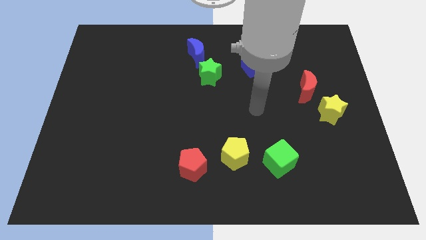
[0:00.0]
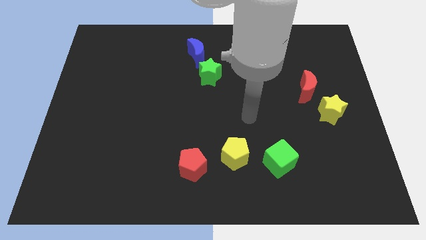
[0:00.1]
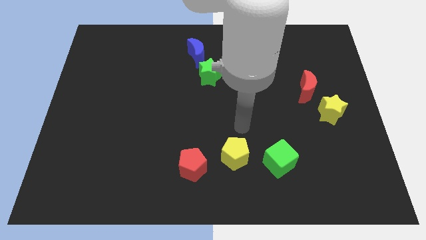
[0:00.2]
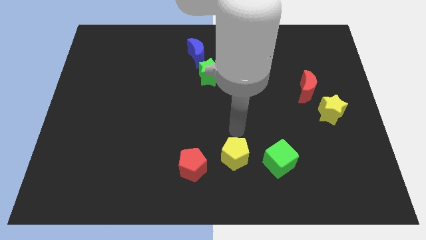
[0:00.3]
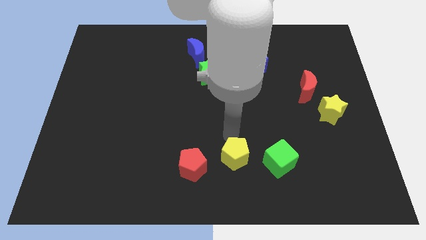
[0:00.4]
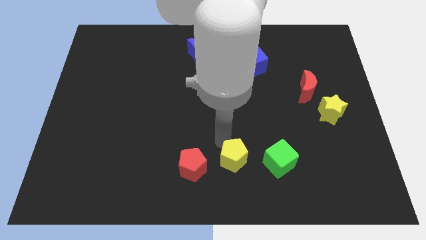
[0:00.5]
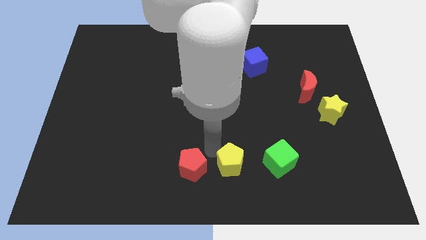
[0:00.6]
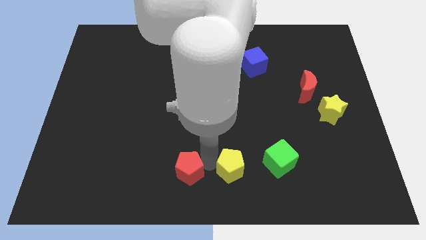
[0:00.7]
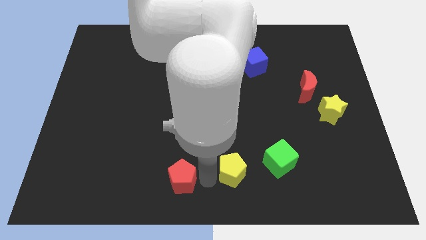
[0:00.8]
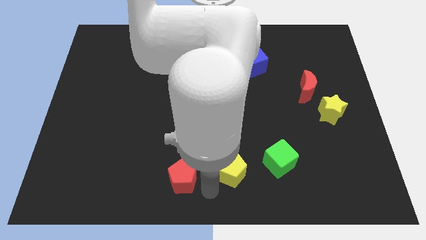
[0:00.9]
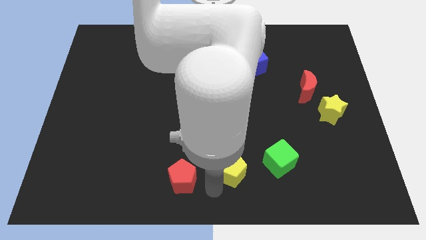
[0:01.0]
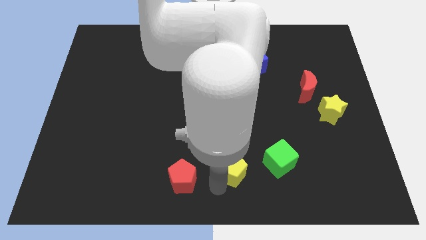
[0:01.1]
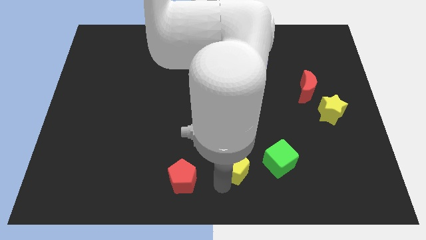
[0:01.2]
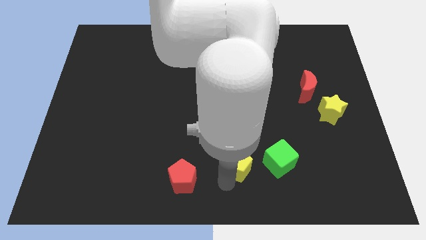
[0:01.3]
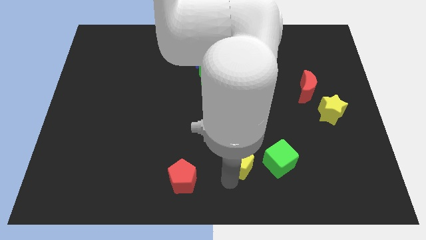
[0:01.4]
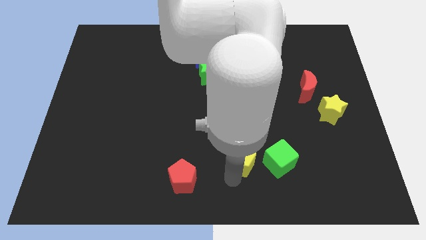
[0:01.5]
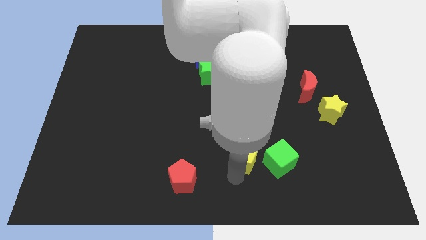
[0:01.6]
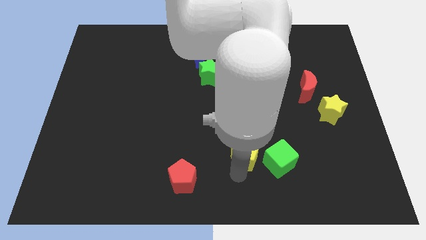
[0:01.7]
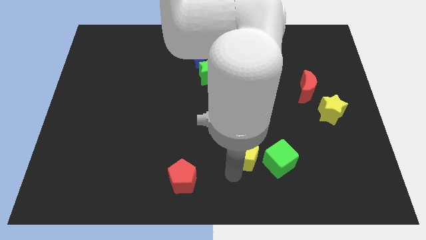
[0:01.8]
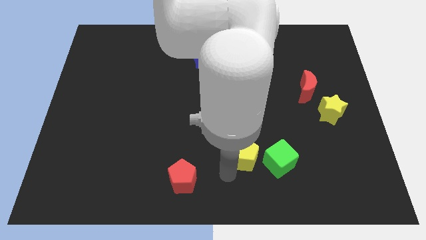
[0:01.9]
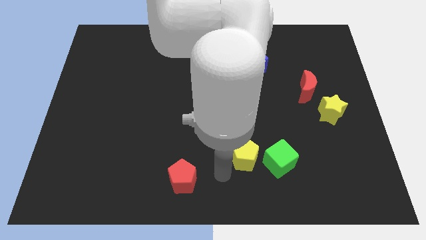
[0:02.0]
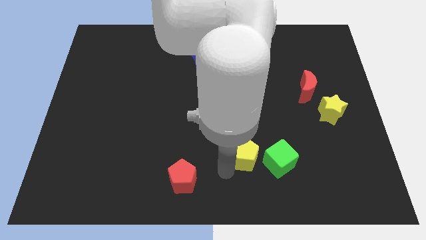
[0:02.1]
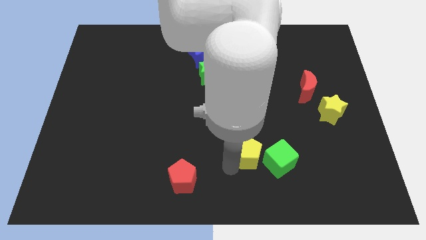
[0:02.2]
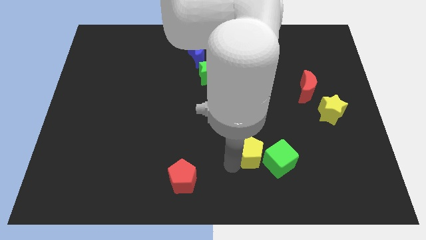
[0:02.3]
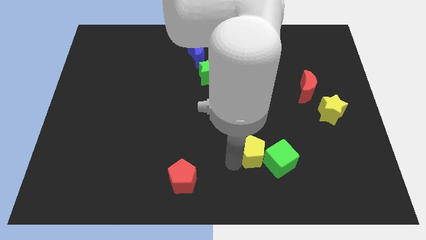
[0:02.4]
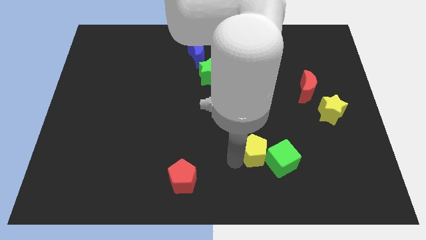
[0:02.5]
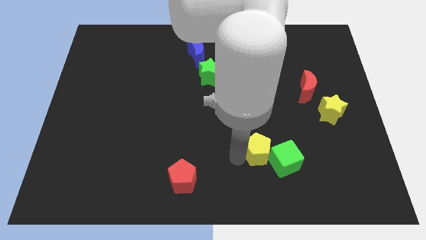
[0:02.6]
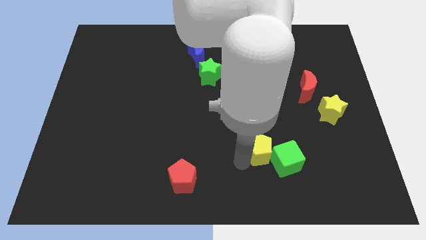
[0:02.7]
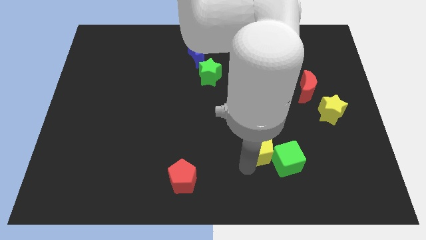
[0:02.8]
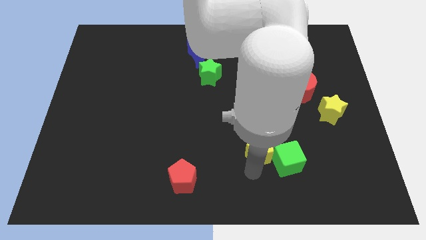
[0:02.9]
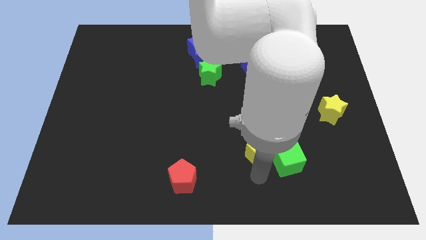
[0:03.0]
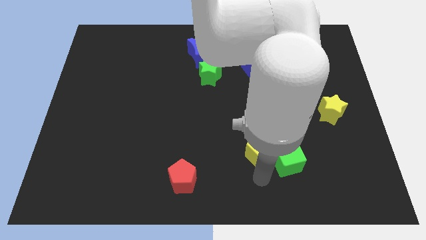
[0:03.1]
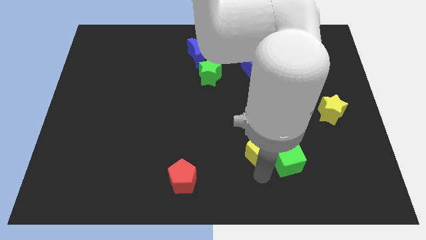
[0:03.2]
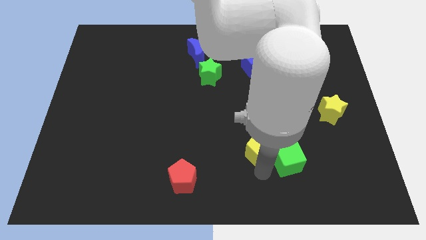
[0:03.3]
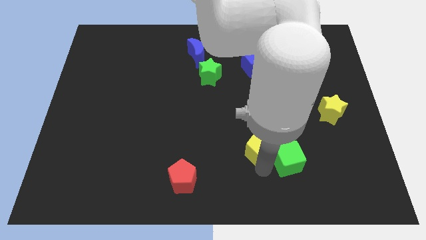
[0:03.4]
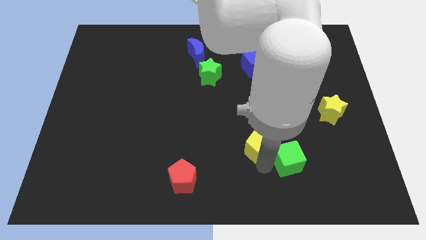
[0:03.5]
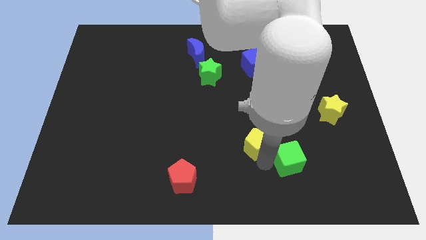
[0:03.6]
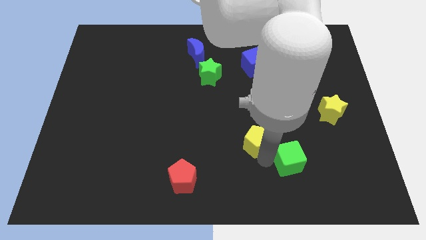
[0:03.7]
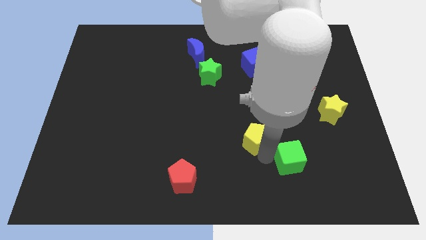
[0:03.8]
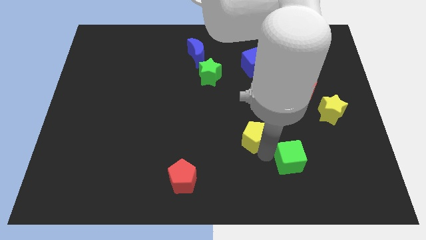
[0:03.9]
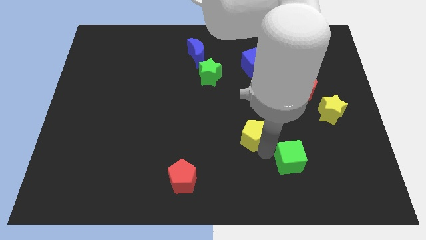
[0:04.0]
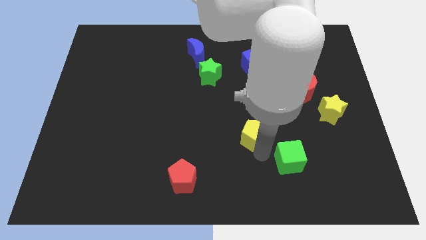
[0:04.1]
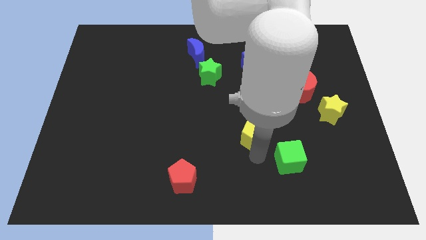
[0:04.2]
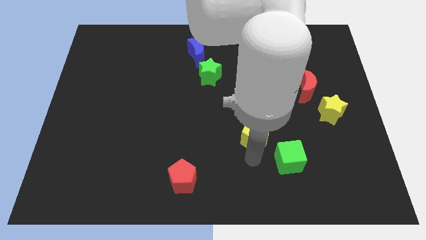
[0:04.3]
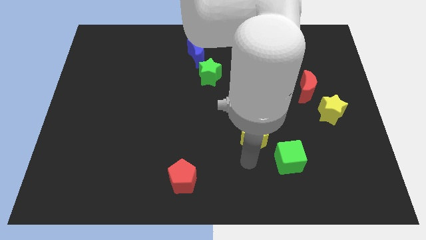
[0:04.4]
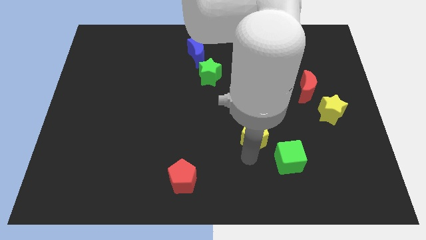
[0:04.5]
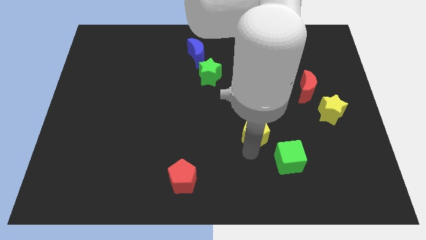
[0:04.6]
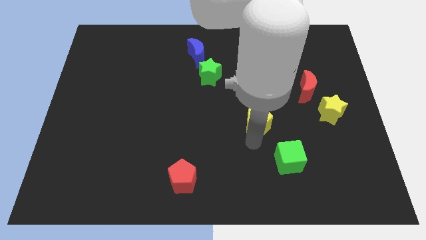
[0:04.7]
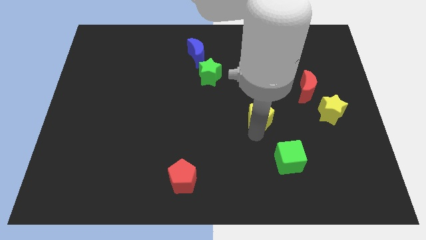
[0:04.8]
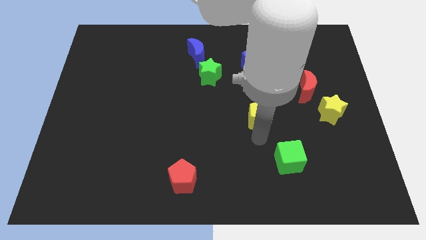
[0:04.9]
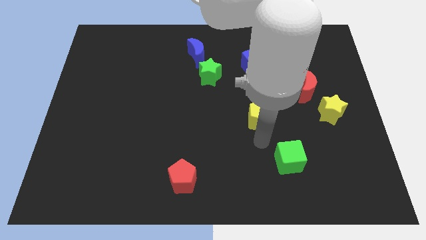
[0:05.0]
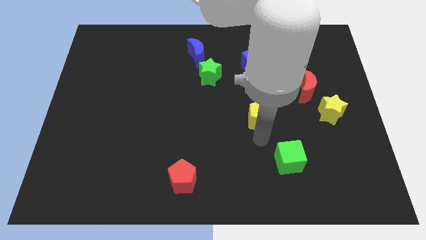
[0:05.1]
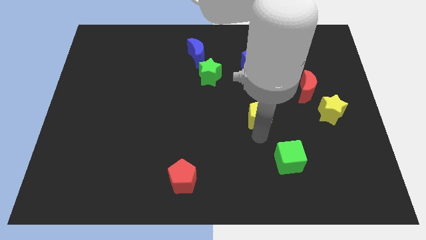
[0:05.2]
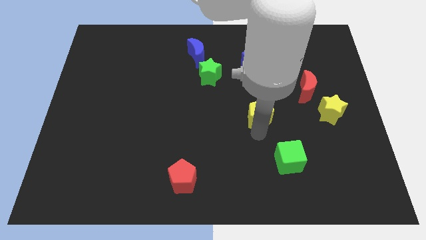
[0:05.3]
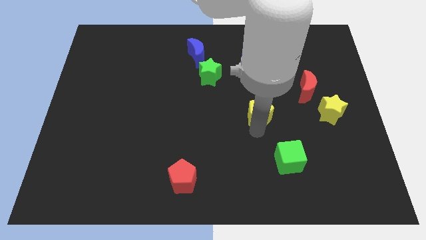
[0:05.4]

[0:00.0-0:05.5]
put the yellow pentagon to the bottom of the blue cube

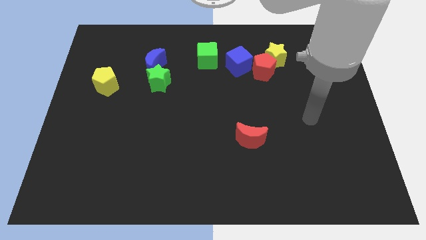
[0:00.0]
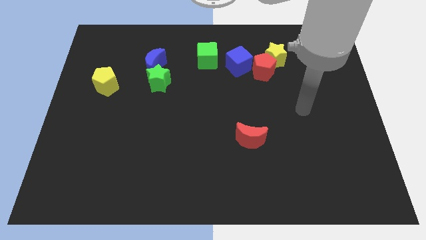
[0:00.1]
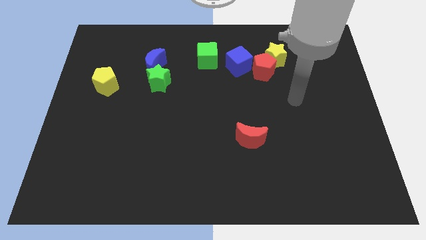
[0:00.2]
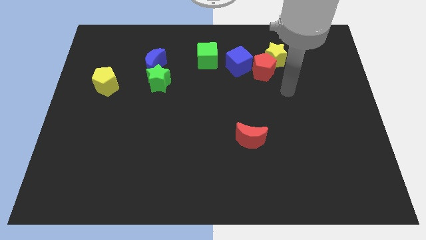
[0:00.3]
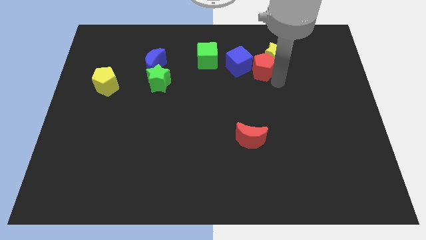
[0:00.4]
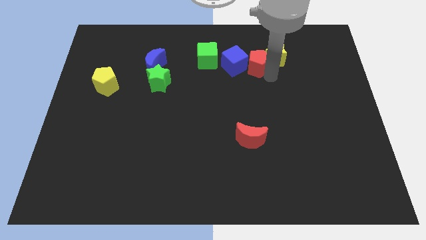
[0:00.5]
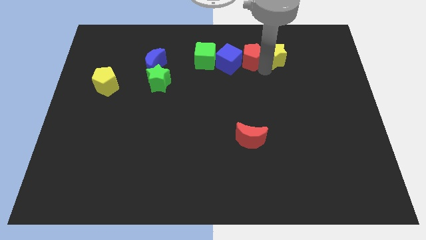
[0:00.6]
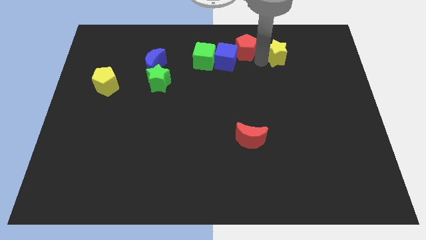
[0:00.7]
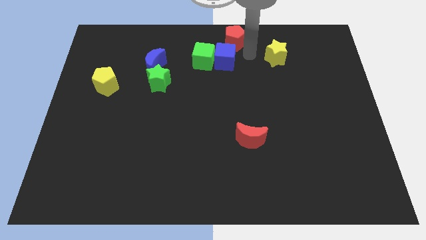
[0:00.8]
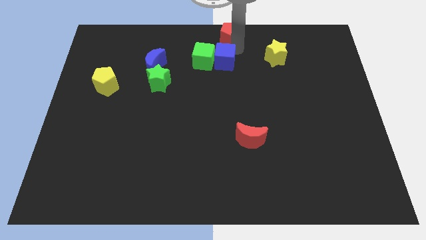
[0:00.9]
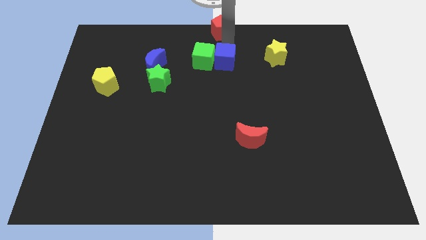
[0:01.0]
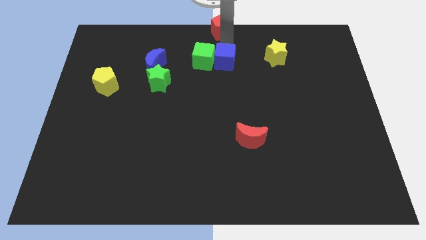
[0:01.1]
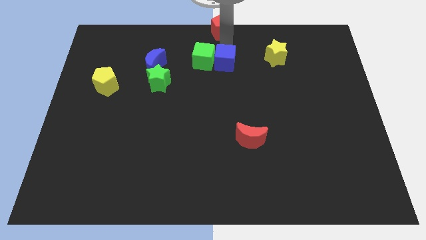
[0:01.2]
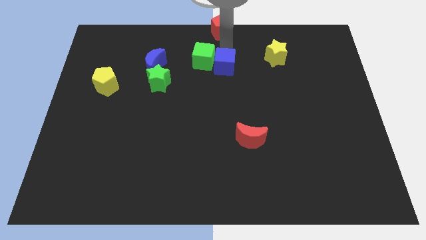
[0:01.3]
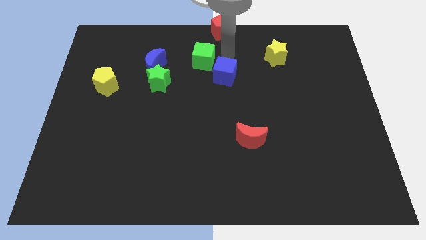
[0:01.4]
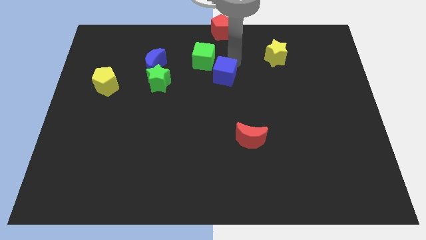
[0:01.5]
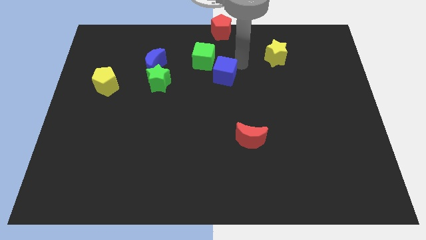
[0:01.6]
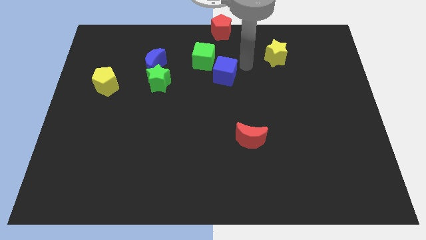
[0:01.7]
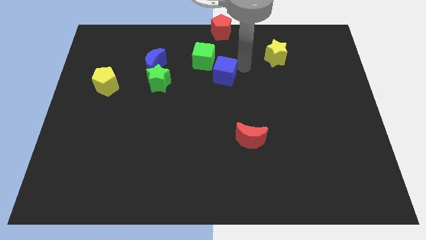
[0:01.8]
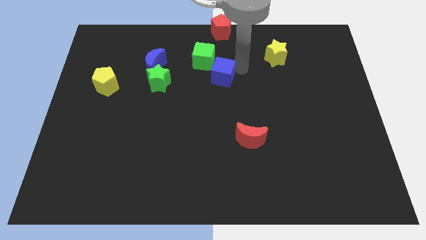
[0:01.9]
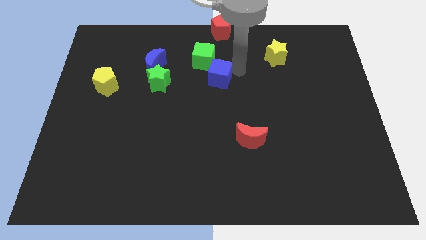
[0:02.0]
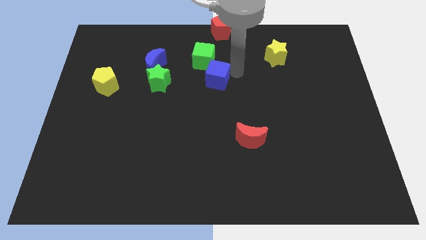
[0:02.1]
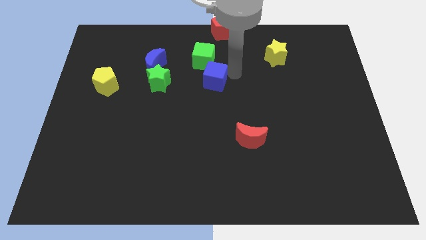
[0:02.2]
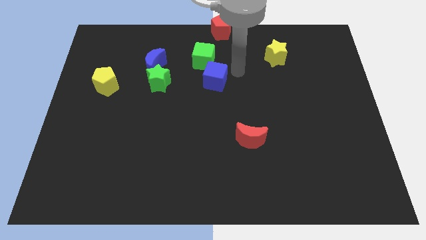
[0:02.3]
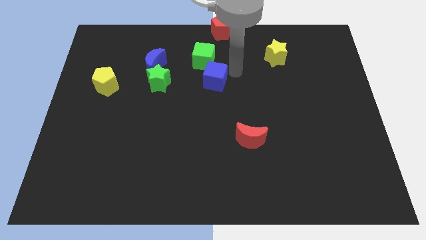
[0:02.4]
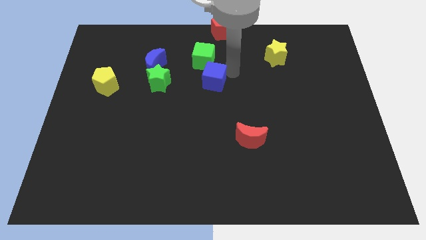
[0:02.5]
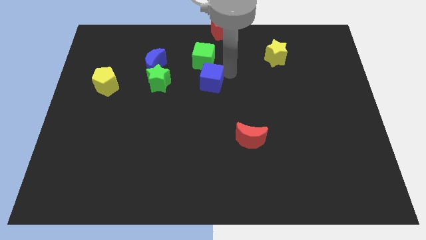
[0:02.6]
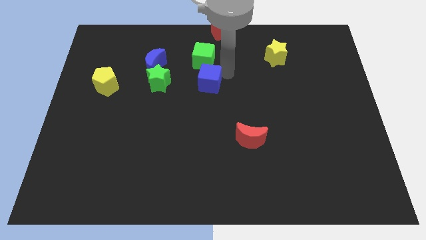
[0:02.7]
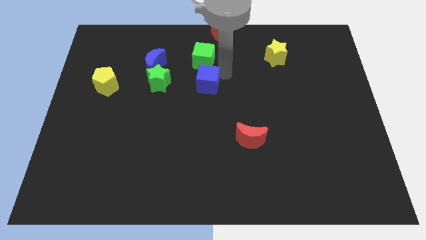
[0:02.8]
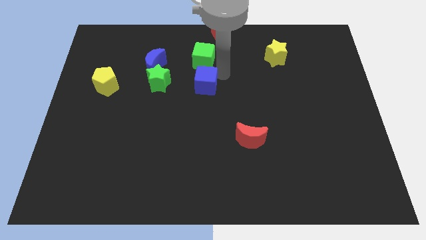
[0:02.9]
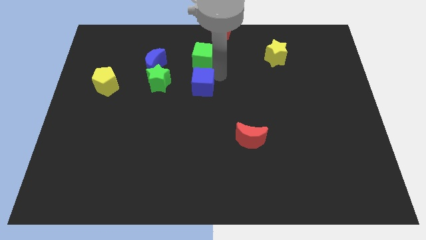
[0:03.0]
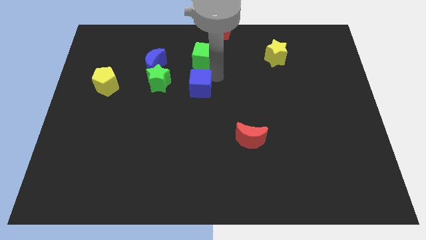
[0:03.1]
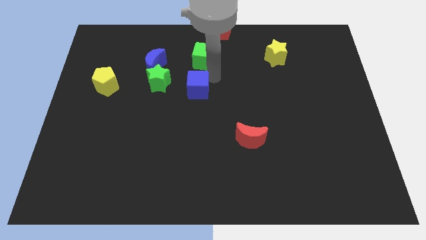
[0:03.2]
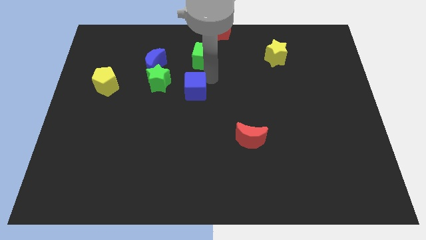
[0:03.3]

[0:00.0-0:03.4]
push the blue cube to the bottom right of the green star
